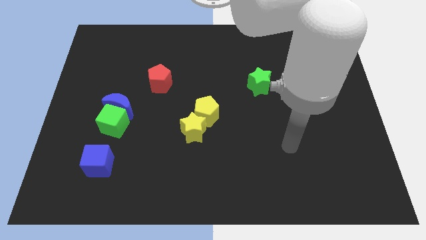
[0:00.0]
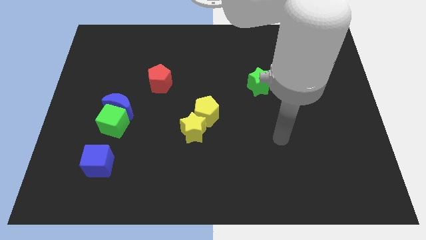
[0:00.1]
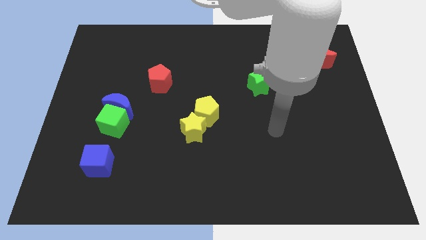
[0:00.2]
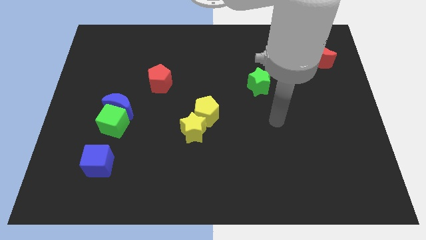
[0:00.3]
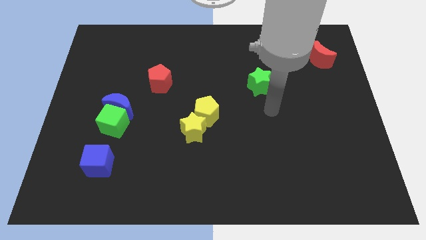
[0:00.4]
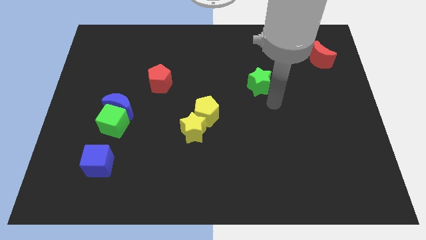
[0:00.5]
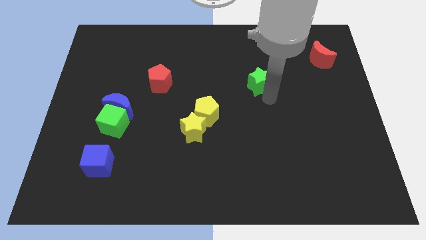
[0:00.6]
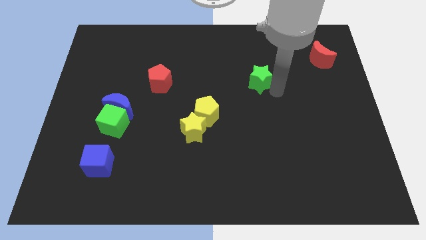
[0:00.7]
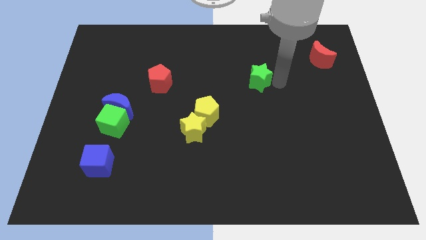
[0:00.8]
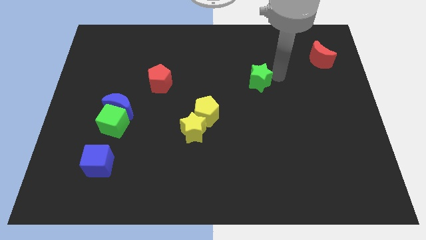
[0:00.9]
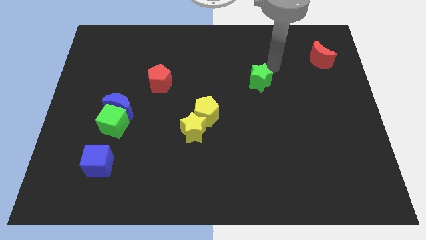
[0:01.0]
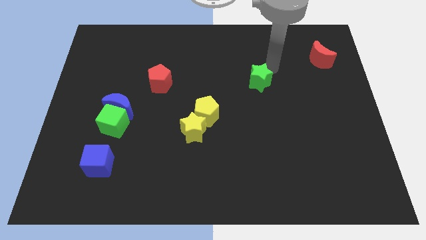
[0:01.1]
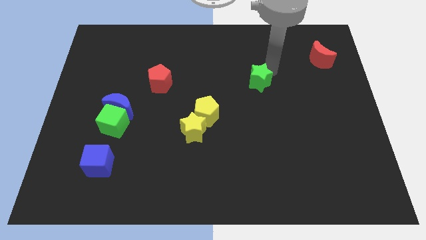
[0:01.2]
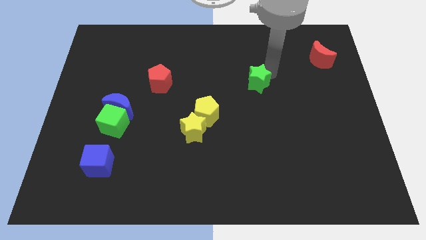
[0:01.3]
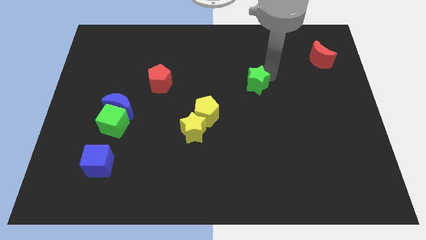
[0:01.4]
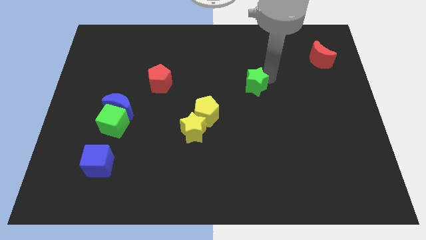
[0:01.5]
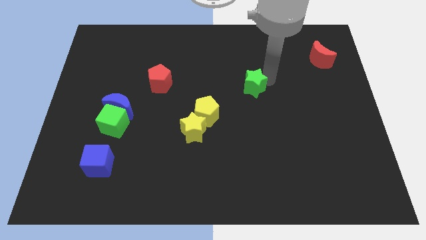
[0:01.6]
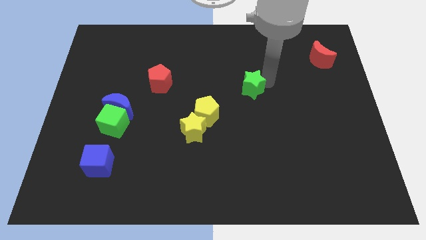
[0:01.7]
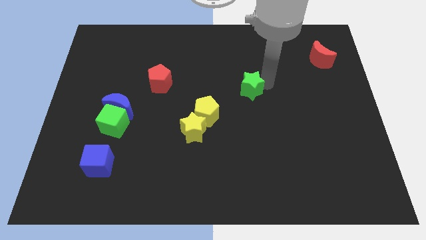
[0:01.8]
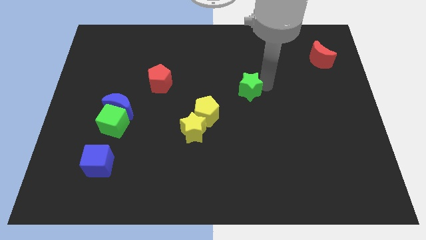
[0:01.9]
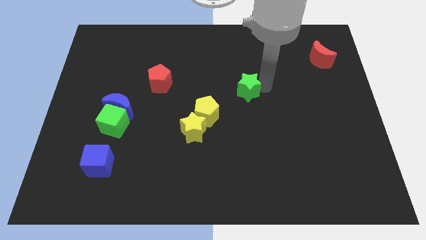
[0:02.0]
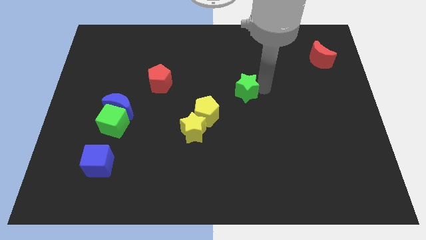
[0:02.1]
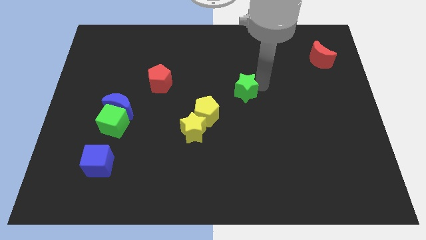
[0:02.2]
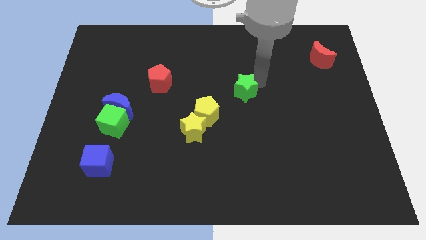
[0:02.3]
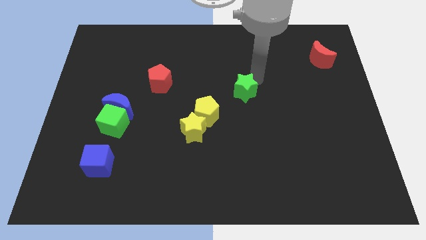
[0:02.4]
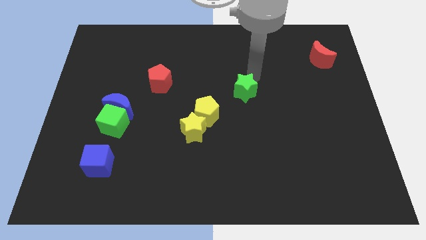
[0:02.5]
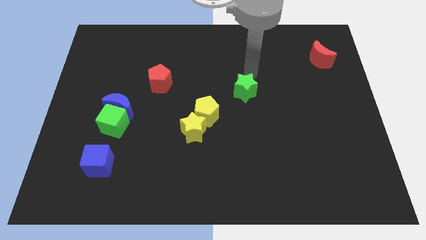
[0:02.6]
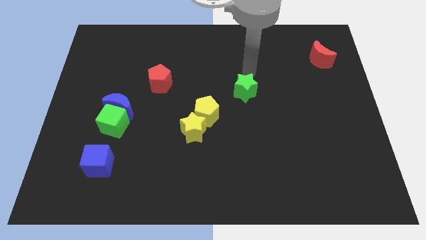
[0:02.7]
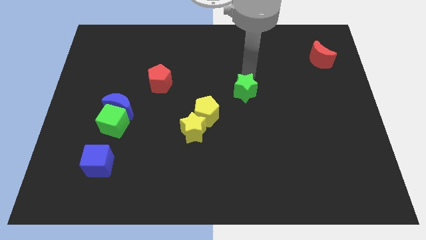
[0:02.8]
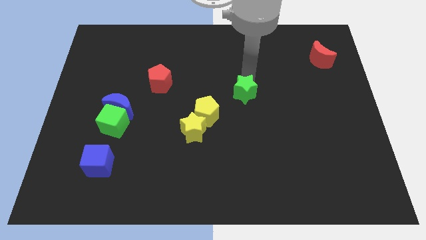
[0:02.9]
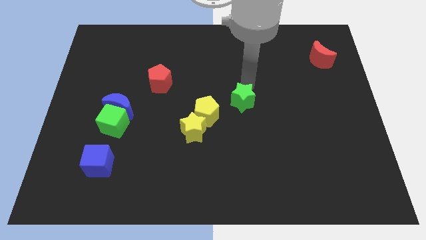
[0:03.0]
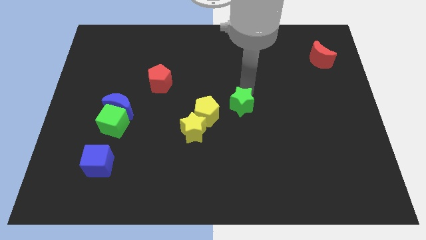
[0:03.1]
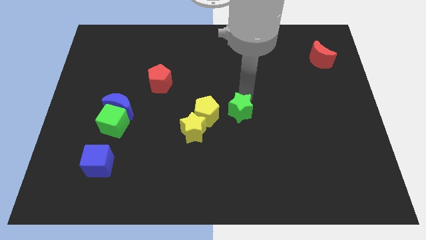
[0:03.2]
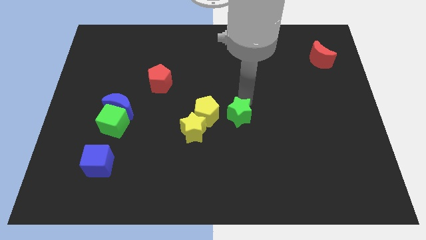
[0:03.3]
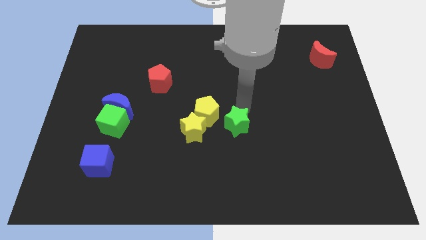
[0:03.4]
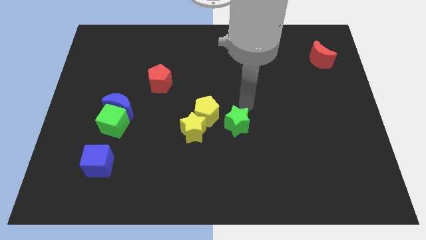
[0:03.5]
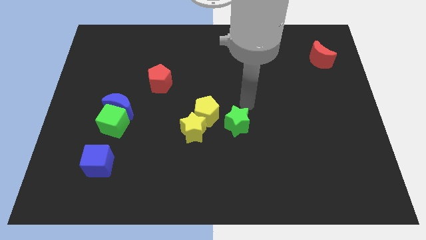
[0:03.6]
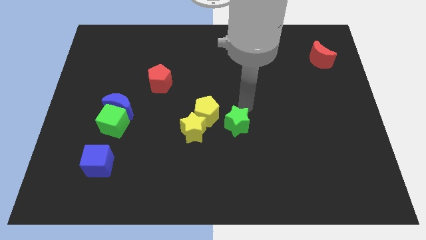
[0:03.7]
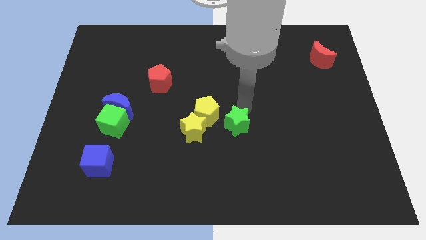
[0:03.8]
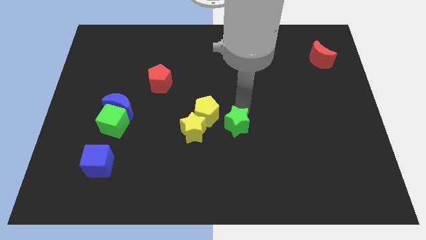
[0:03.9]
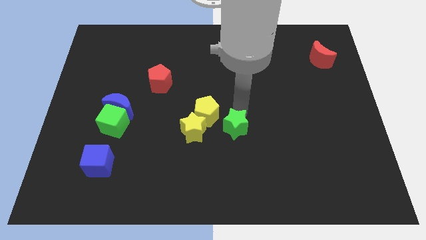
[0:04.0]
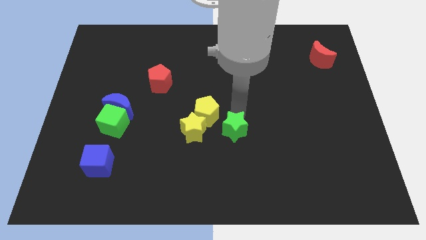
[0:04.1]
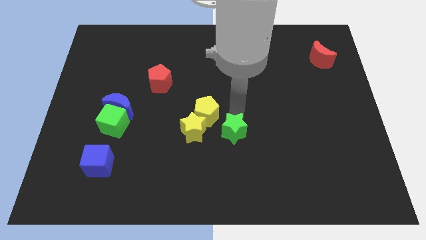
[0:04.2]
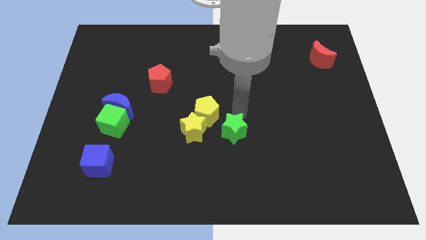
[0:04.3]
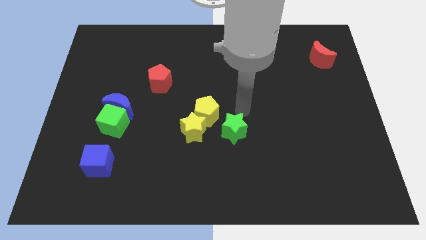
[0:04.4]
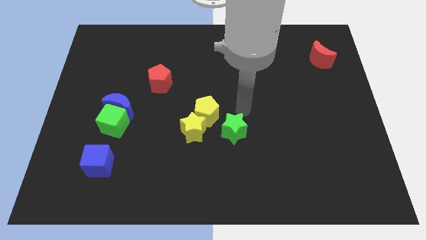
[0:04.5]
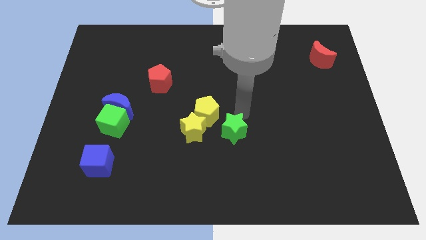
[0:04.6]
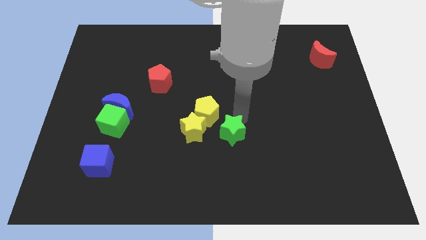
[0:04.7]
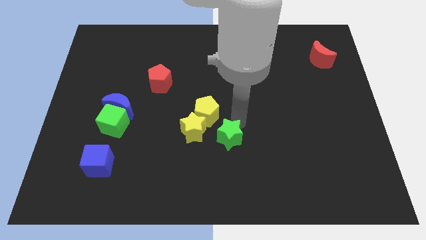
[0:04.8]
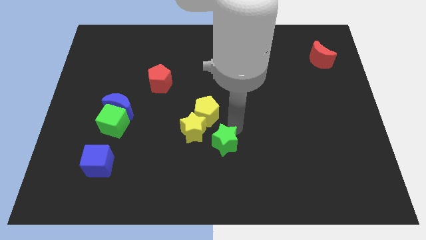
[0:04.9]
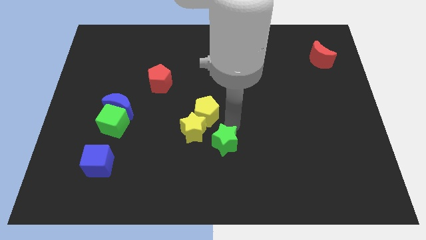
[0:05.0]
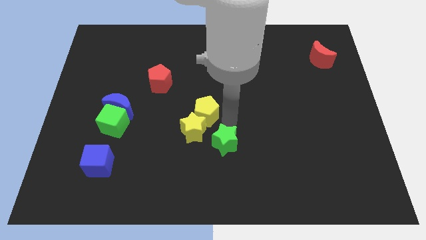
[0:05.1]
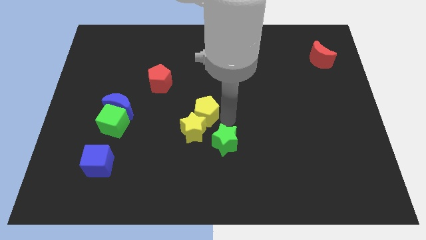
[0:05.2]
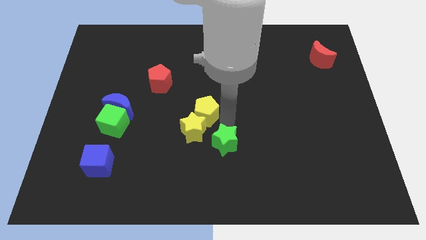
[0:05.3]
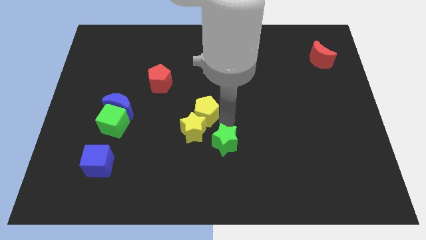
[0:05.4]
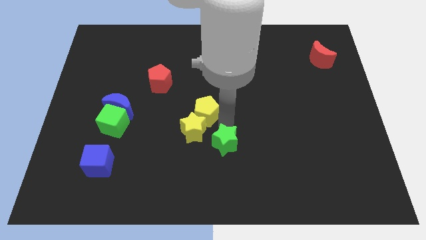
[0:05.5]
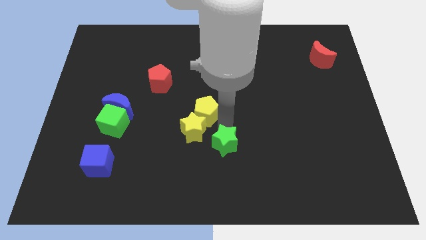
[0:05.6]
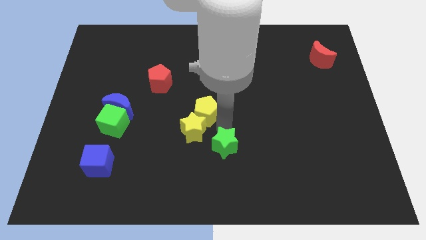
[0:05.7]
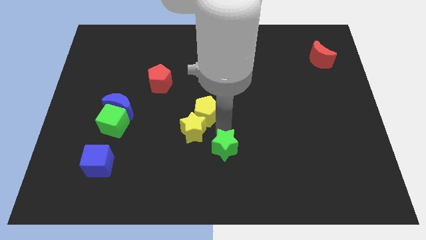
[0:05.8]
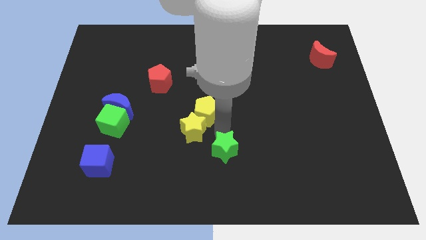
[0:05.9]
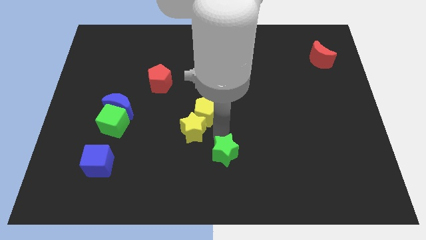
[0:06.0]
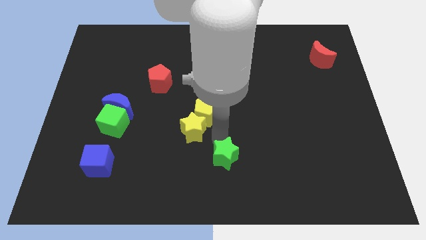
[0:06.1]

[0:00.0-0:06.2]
slide the green star to the bottom

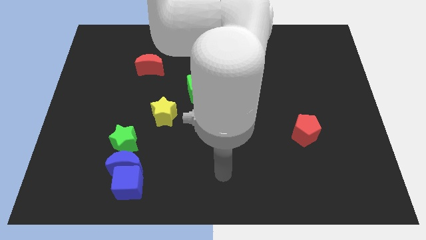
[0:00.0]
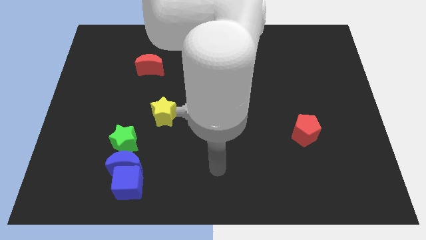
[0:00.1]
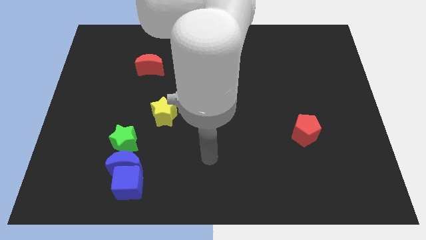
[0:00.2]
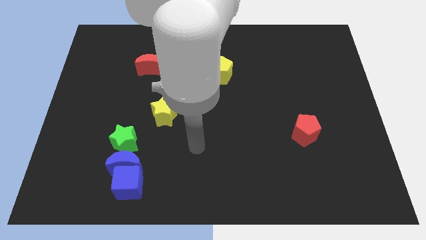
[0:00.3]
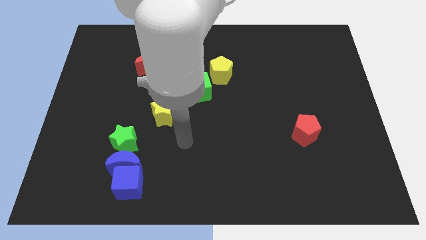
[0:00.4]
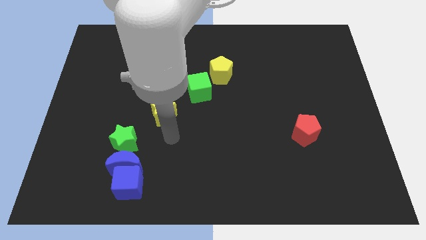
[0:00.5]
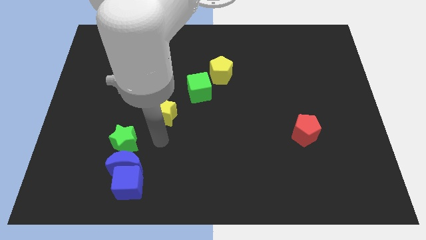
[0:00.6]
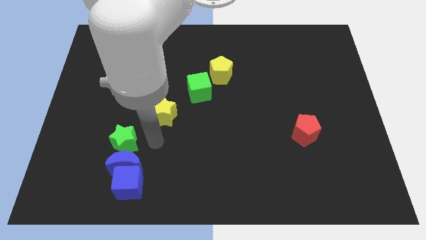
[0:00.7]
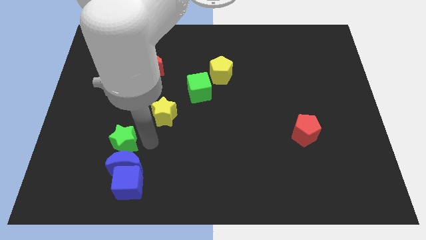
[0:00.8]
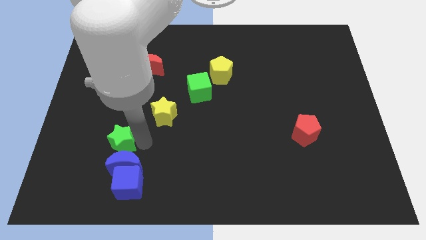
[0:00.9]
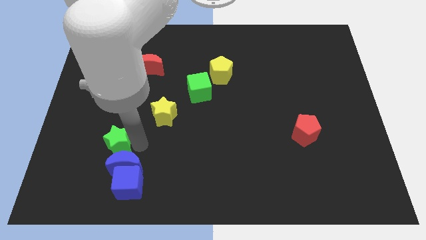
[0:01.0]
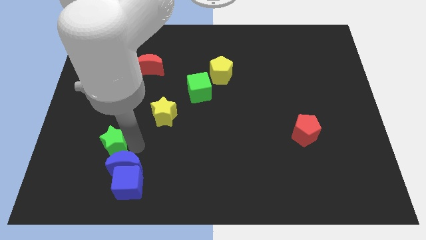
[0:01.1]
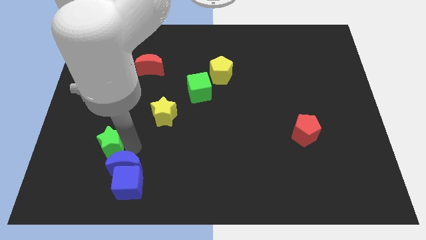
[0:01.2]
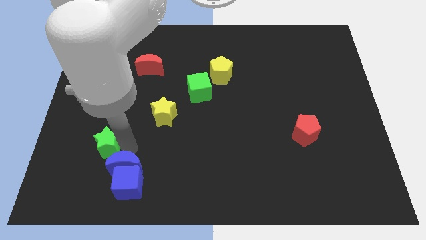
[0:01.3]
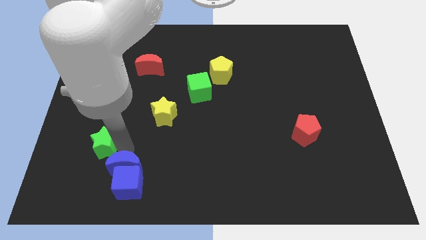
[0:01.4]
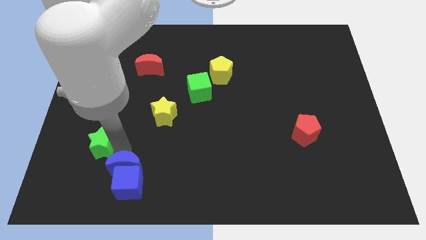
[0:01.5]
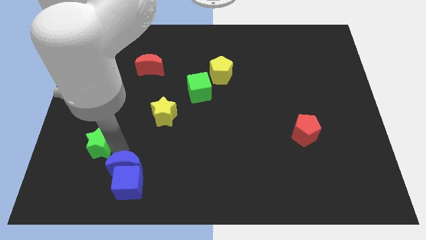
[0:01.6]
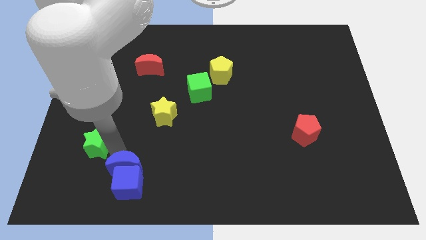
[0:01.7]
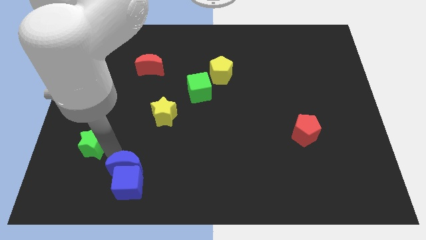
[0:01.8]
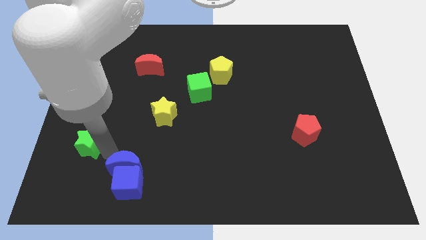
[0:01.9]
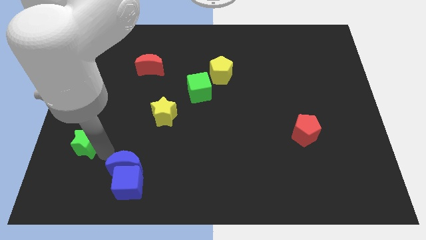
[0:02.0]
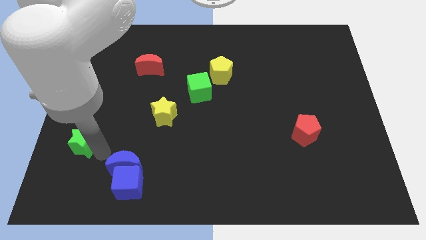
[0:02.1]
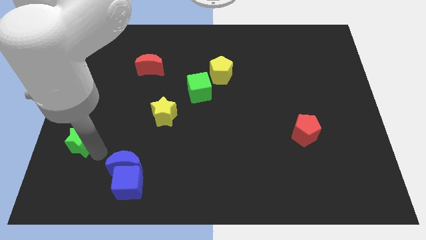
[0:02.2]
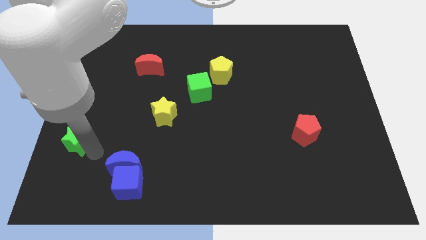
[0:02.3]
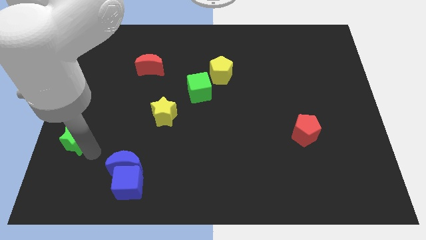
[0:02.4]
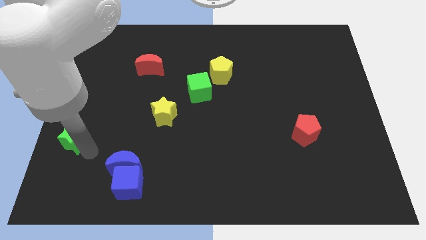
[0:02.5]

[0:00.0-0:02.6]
put the green star to the left side
